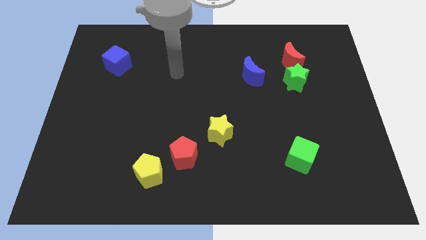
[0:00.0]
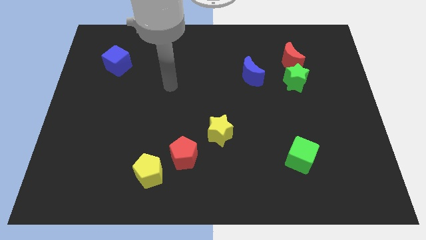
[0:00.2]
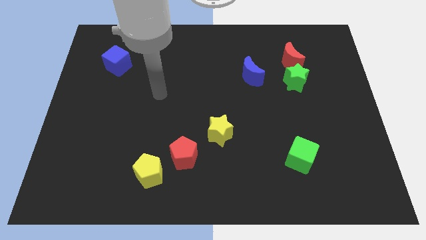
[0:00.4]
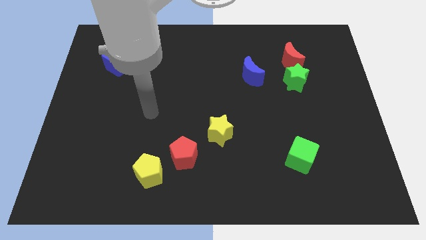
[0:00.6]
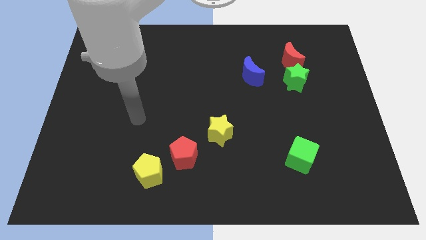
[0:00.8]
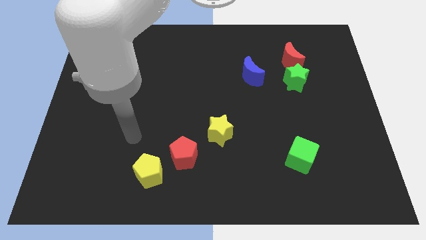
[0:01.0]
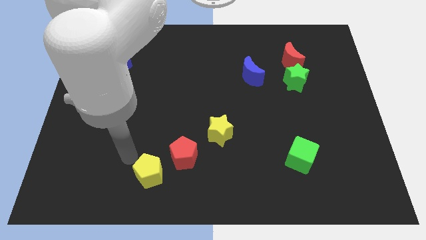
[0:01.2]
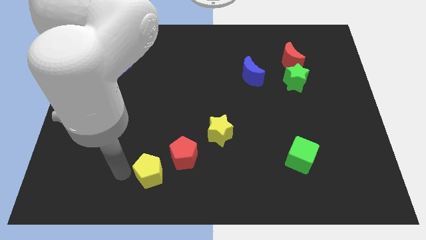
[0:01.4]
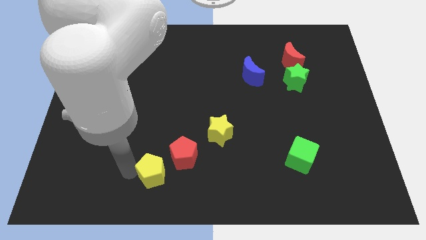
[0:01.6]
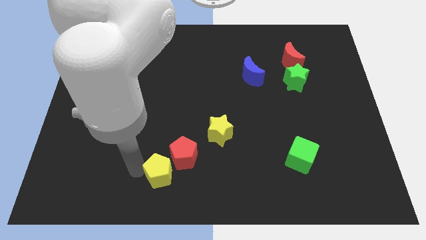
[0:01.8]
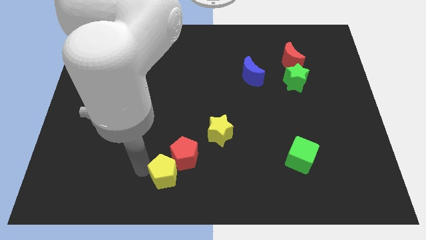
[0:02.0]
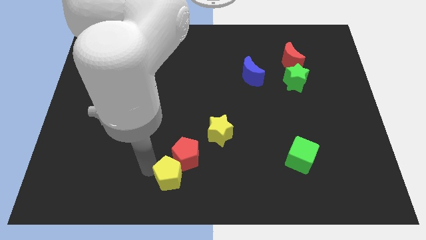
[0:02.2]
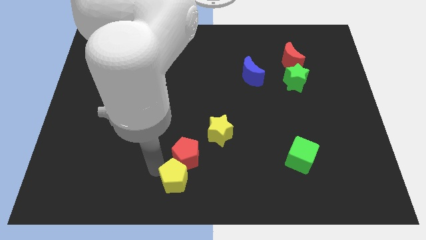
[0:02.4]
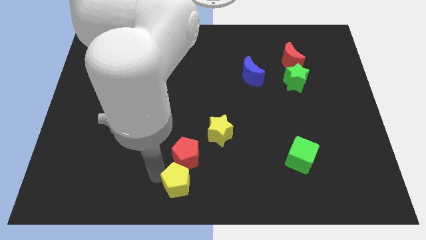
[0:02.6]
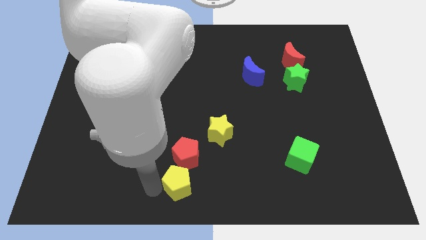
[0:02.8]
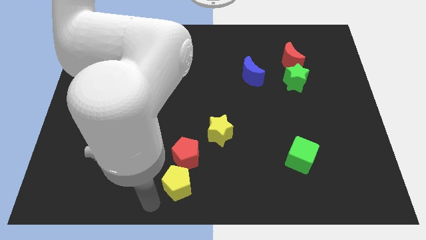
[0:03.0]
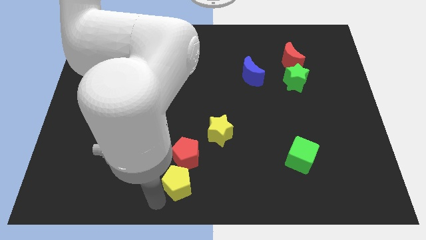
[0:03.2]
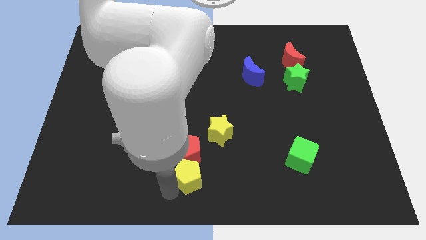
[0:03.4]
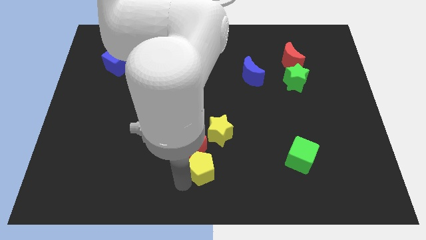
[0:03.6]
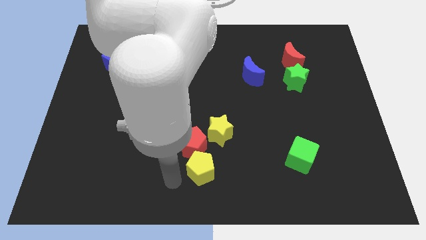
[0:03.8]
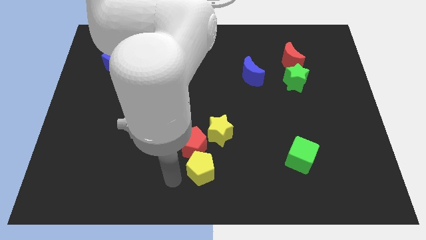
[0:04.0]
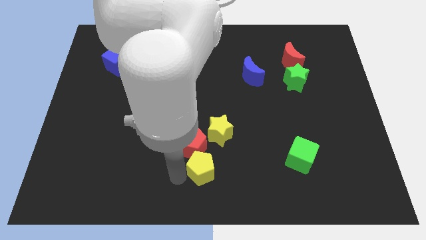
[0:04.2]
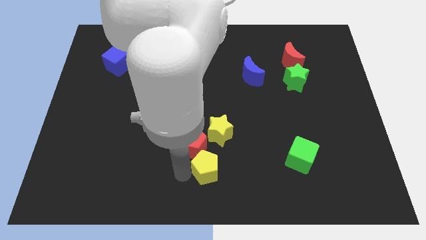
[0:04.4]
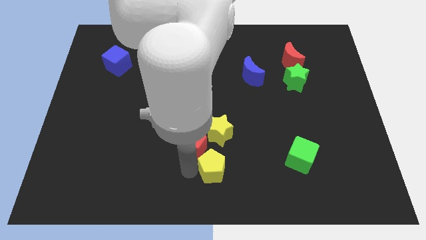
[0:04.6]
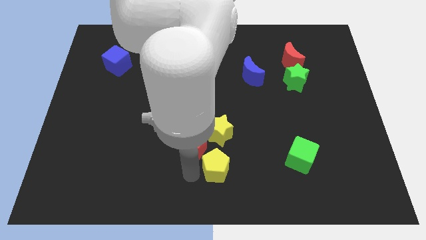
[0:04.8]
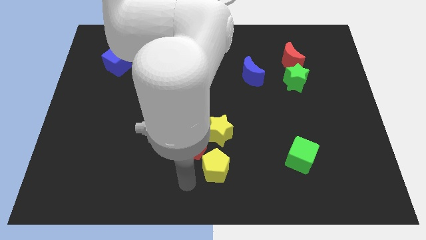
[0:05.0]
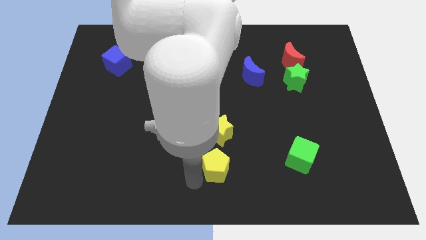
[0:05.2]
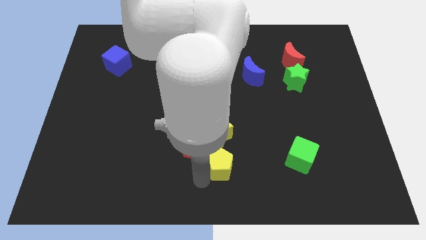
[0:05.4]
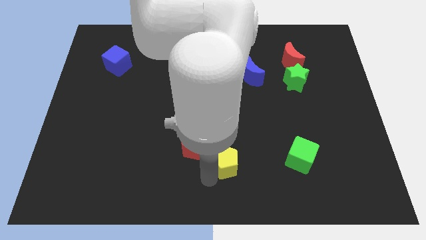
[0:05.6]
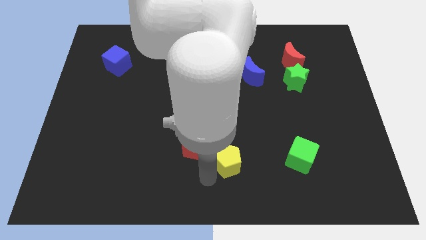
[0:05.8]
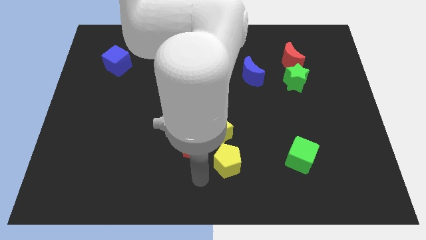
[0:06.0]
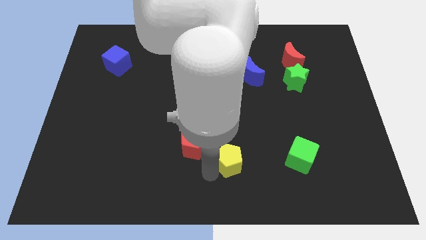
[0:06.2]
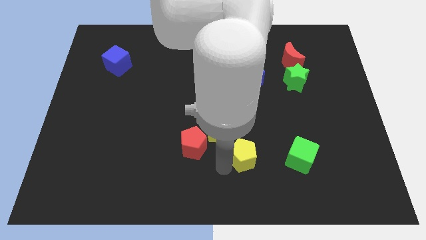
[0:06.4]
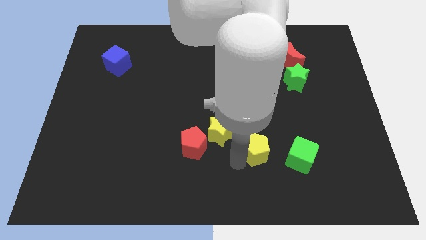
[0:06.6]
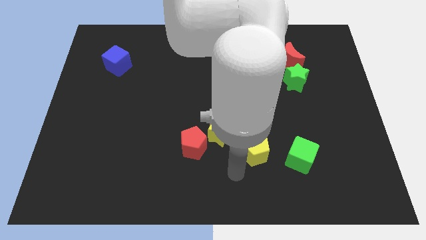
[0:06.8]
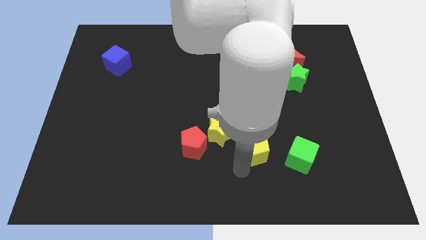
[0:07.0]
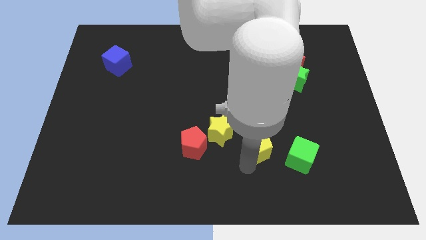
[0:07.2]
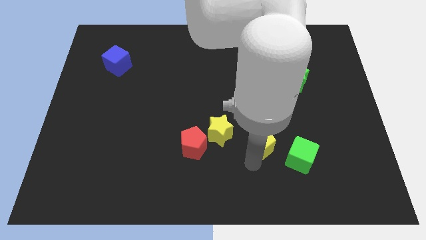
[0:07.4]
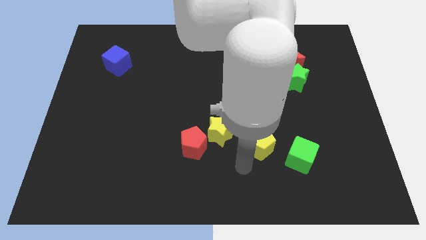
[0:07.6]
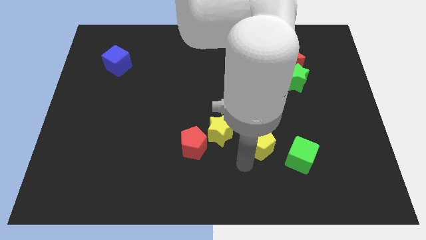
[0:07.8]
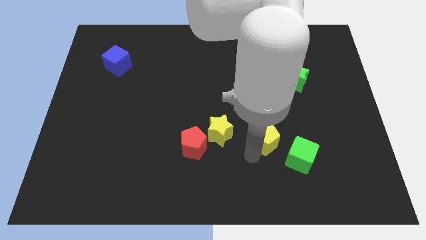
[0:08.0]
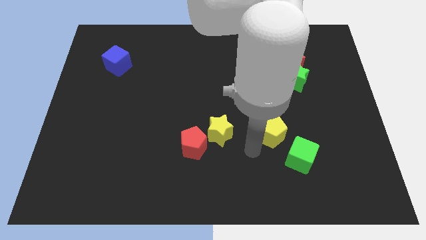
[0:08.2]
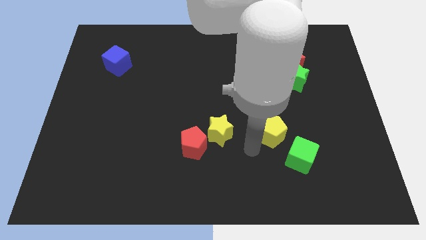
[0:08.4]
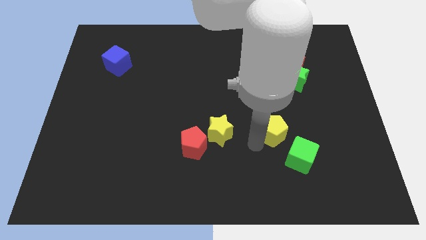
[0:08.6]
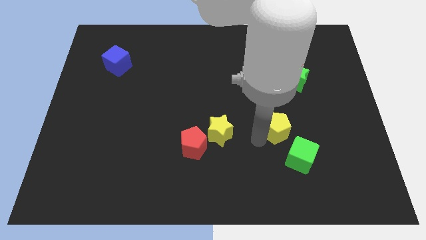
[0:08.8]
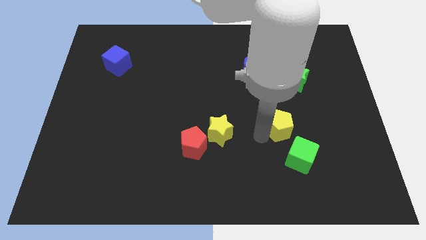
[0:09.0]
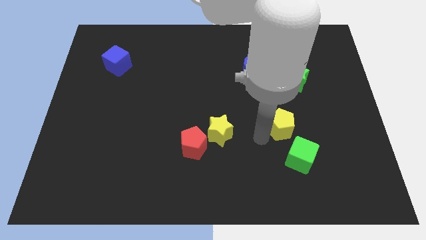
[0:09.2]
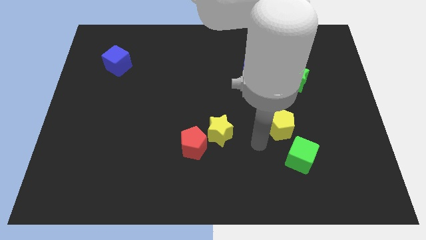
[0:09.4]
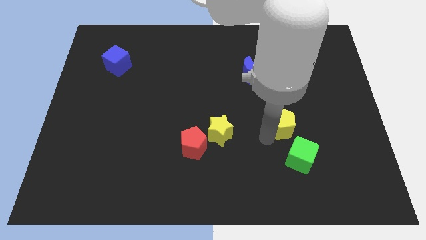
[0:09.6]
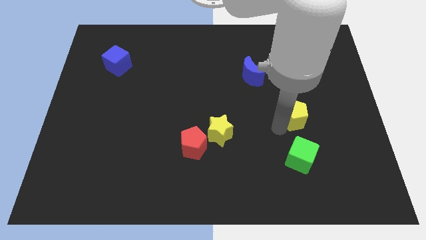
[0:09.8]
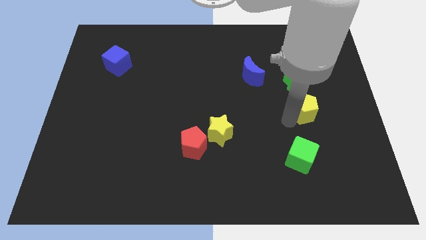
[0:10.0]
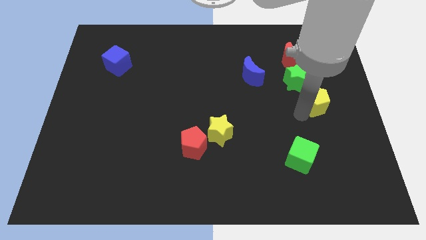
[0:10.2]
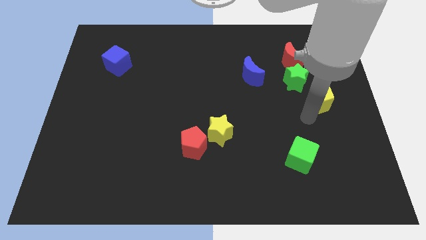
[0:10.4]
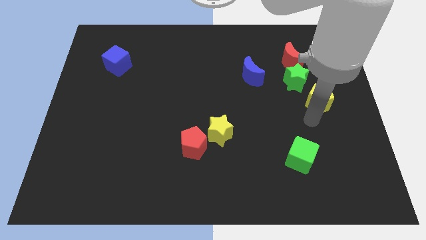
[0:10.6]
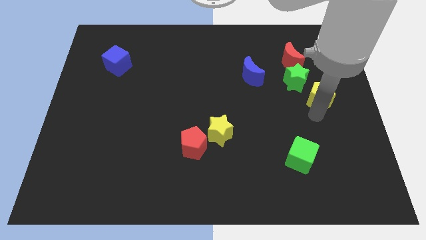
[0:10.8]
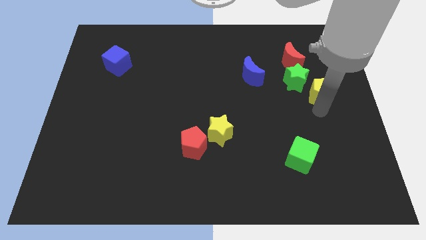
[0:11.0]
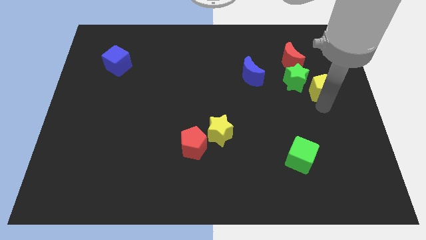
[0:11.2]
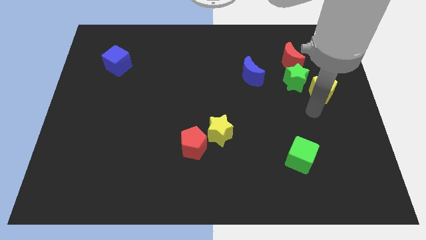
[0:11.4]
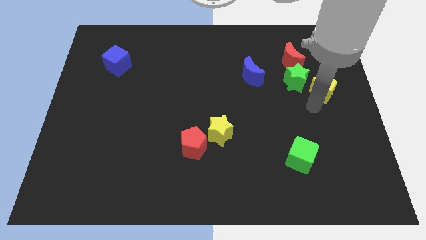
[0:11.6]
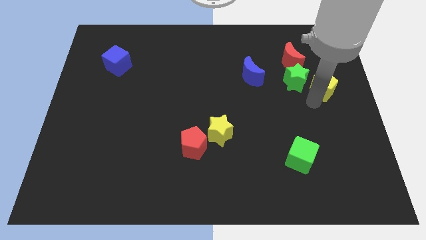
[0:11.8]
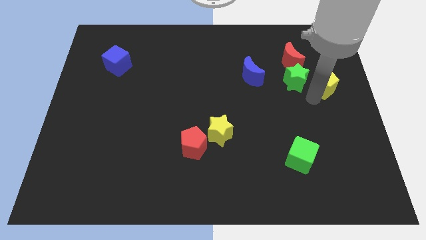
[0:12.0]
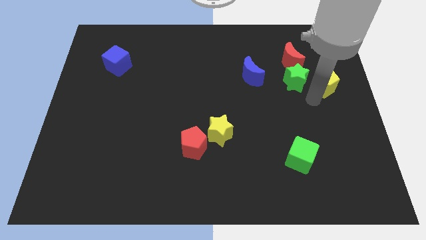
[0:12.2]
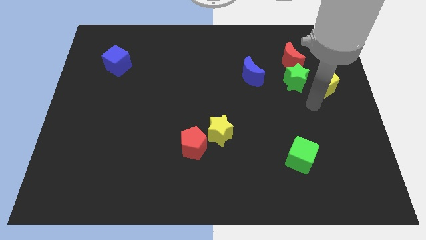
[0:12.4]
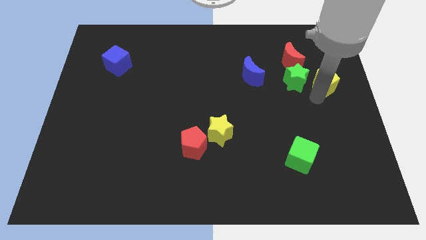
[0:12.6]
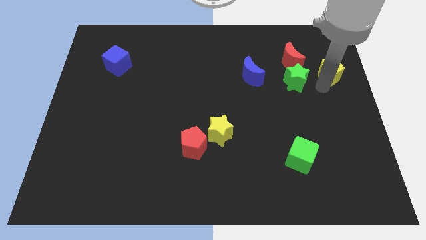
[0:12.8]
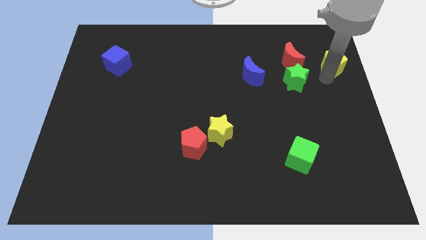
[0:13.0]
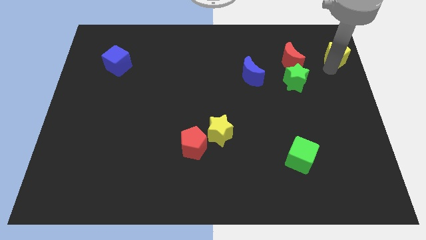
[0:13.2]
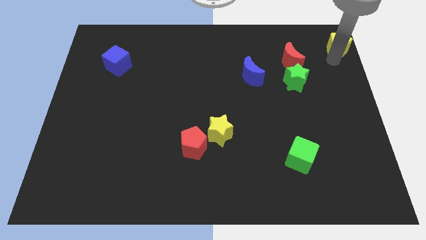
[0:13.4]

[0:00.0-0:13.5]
put the yellow pentagon to the top right

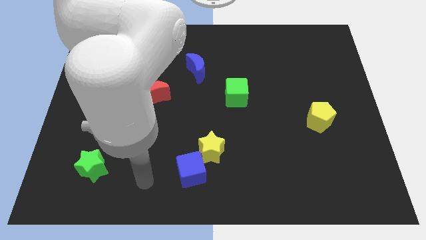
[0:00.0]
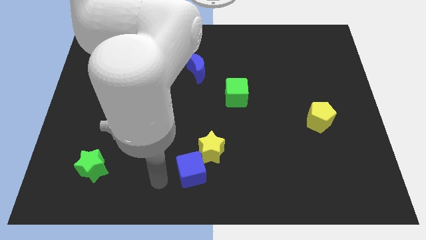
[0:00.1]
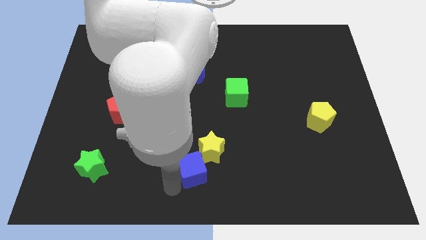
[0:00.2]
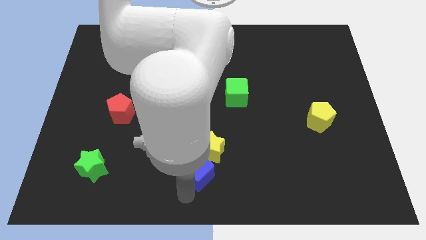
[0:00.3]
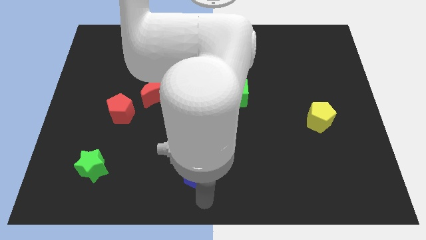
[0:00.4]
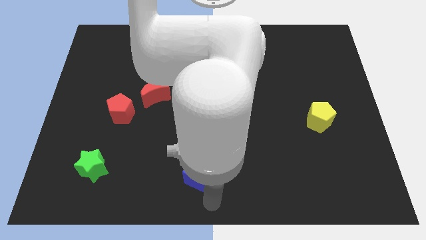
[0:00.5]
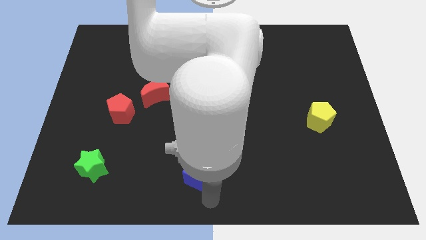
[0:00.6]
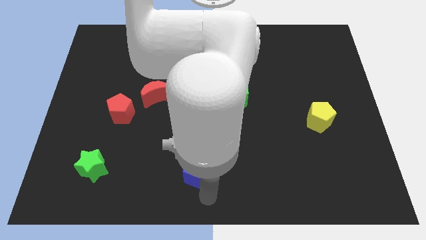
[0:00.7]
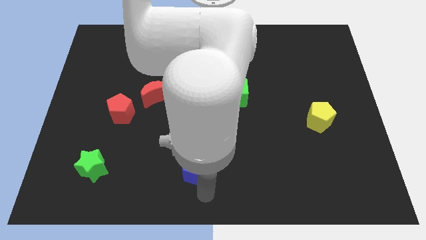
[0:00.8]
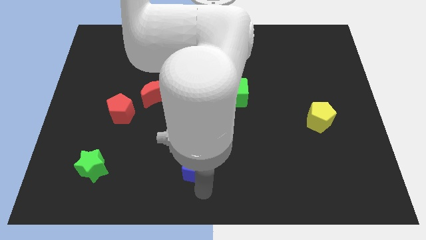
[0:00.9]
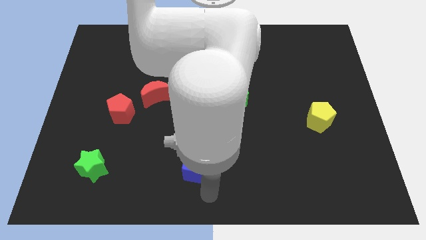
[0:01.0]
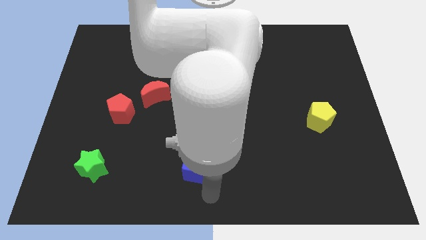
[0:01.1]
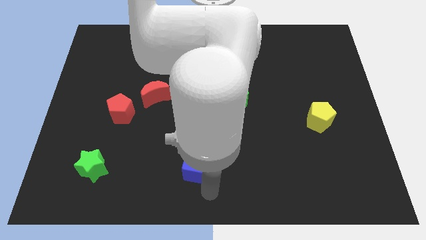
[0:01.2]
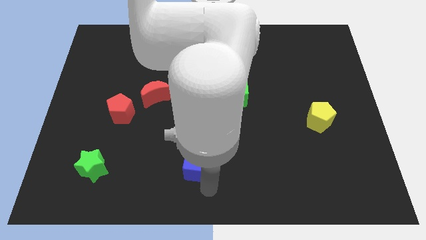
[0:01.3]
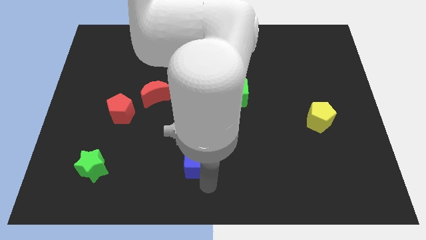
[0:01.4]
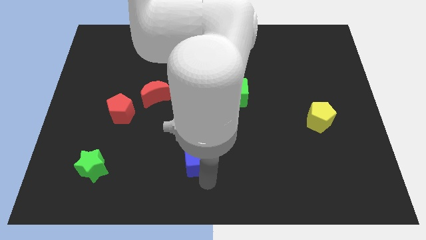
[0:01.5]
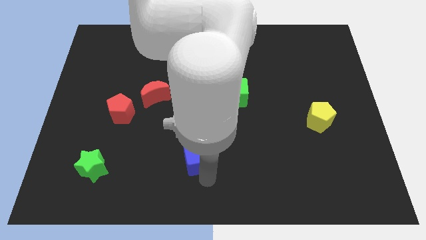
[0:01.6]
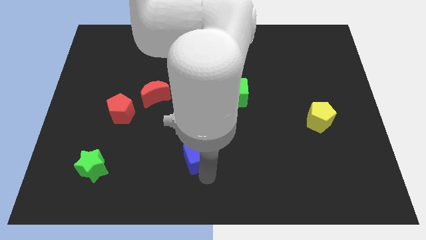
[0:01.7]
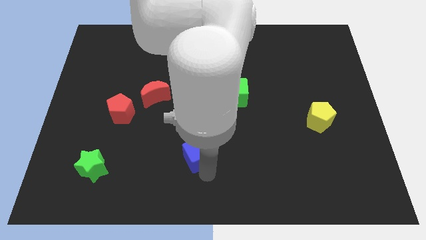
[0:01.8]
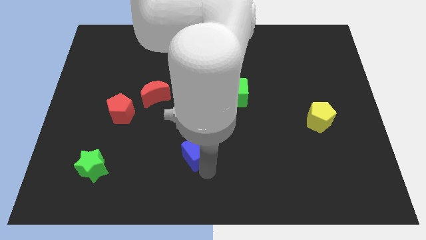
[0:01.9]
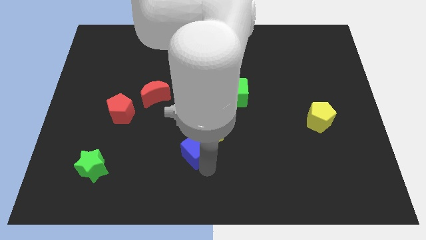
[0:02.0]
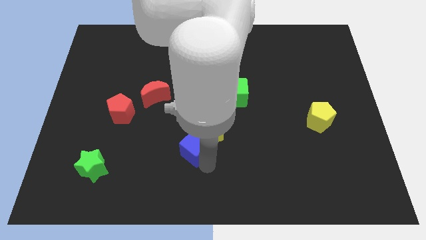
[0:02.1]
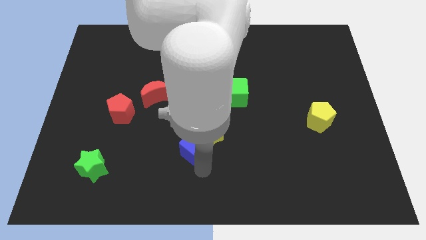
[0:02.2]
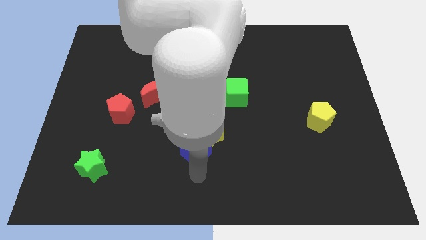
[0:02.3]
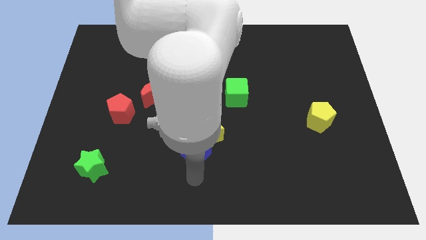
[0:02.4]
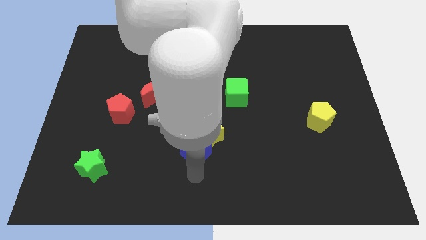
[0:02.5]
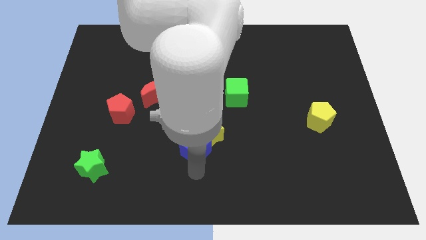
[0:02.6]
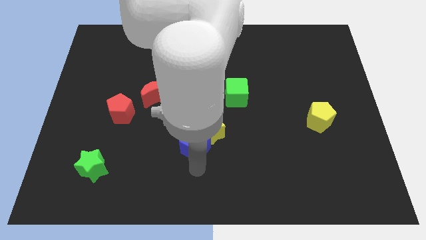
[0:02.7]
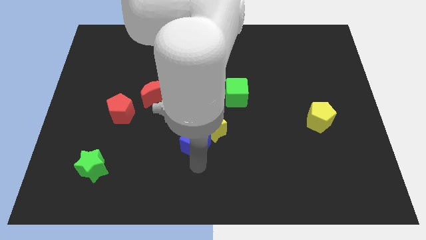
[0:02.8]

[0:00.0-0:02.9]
put the blue cube to the middle
